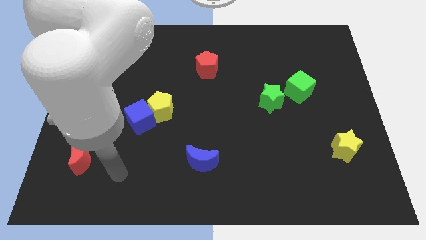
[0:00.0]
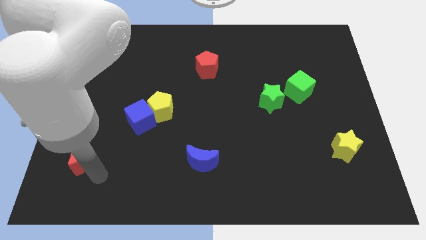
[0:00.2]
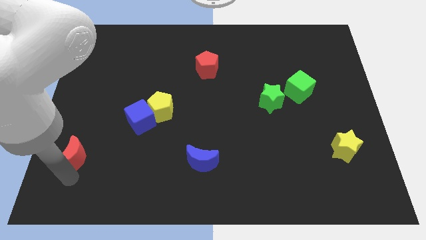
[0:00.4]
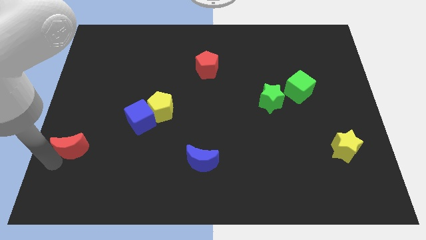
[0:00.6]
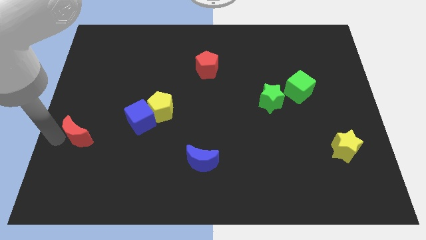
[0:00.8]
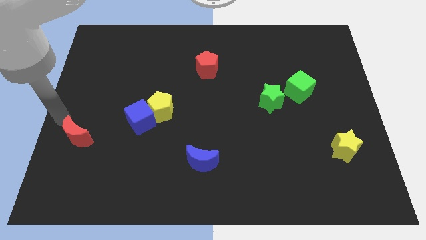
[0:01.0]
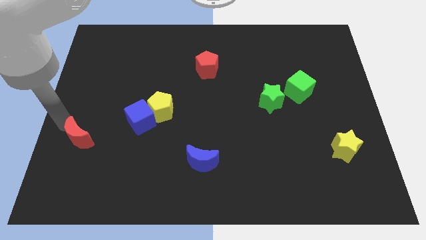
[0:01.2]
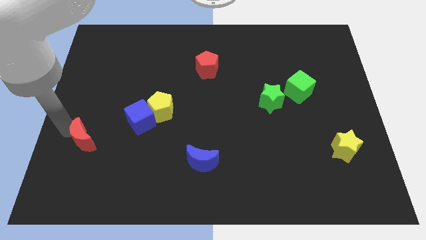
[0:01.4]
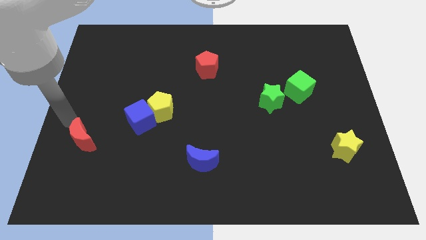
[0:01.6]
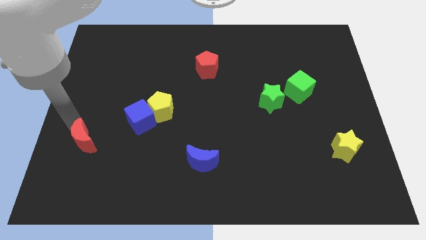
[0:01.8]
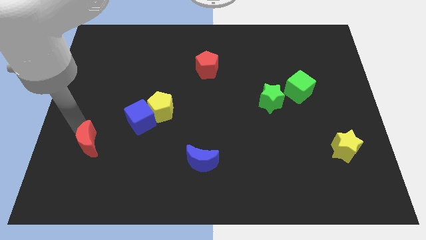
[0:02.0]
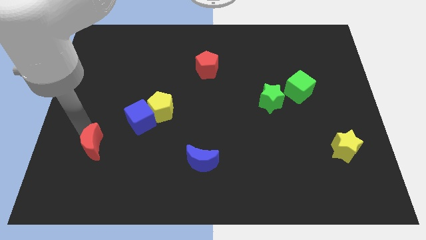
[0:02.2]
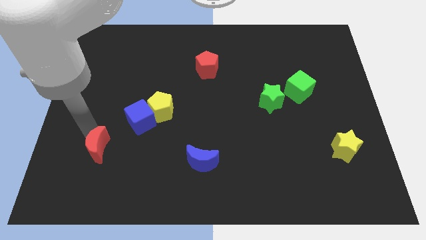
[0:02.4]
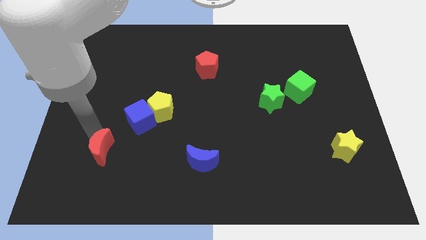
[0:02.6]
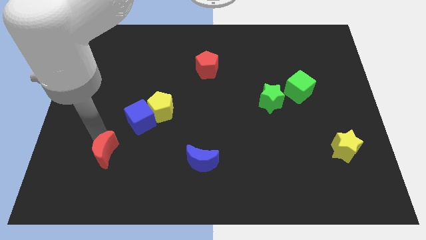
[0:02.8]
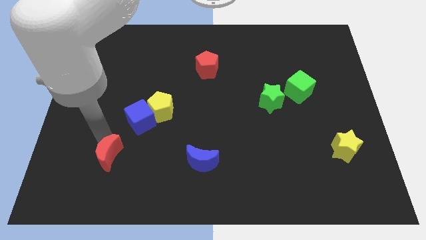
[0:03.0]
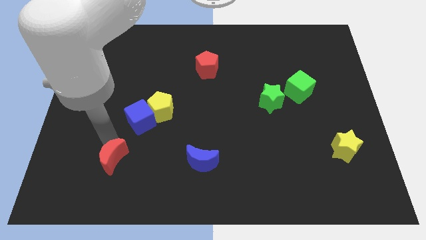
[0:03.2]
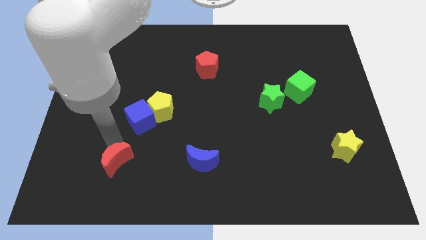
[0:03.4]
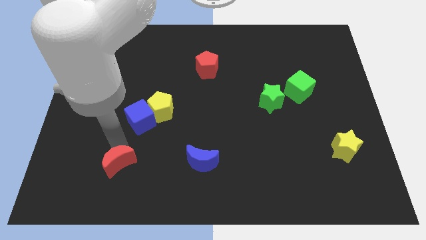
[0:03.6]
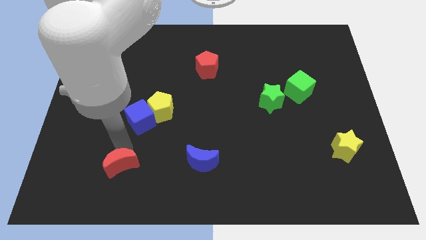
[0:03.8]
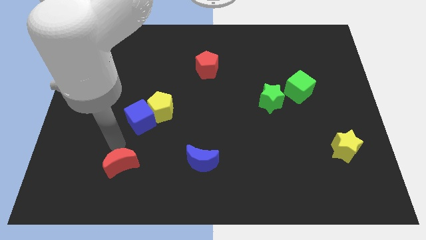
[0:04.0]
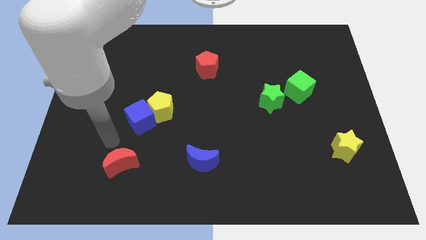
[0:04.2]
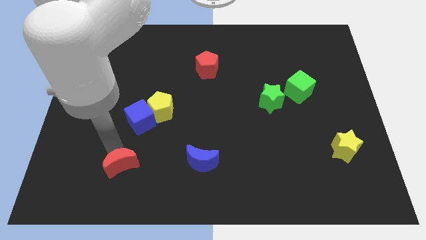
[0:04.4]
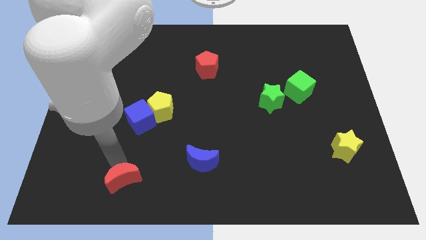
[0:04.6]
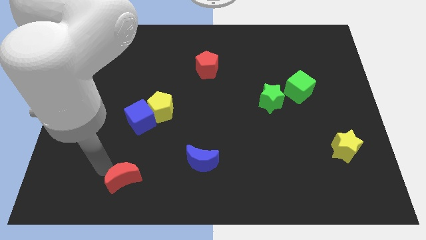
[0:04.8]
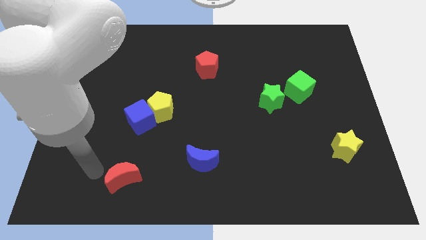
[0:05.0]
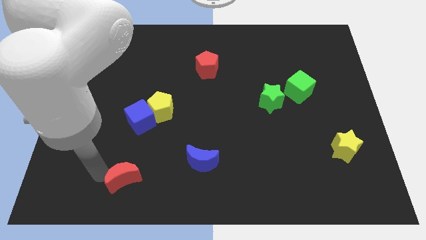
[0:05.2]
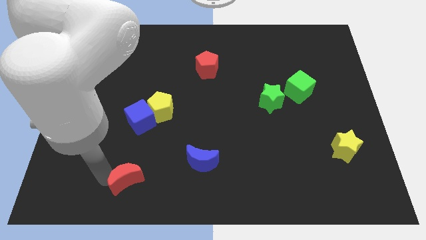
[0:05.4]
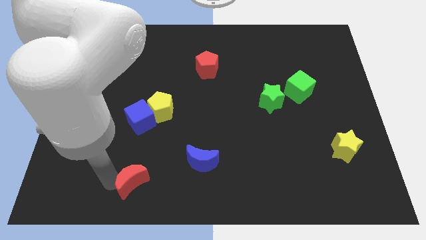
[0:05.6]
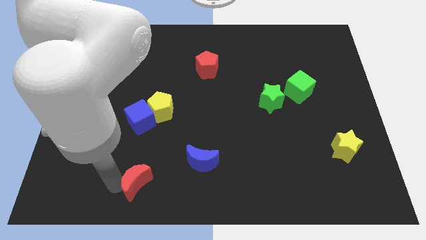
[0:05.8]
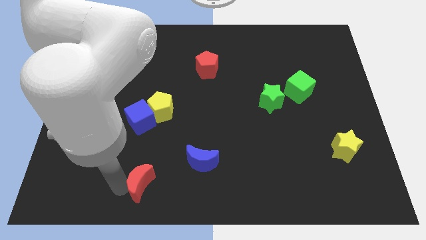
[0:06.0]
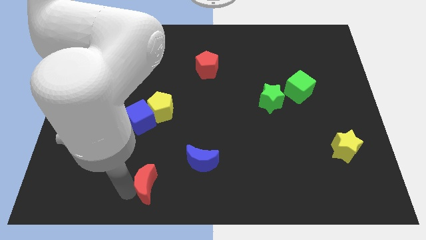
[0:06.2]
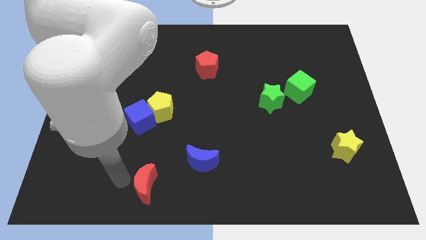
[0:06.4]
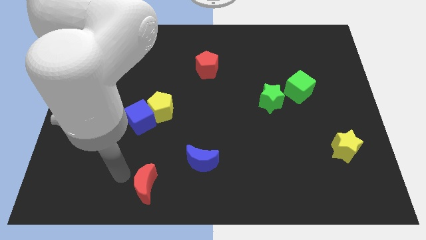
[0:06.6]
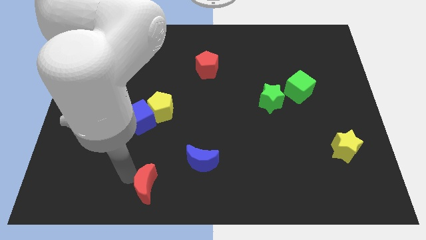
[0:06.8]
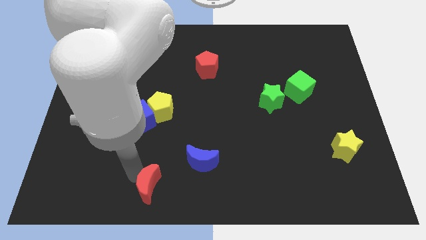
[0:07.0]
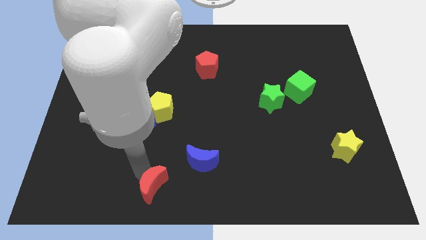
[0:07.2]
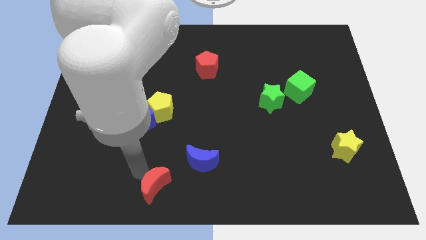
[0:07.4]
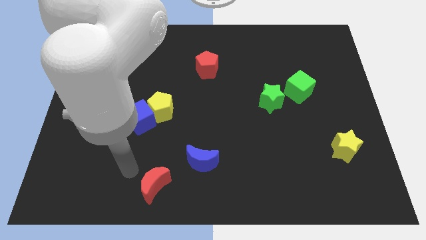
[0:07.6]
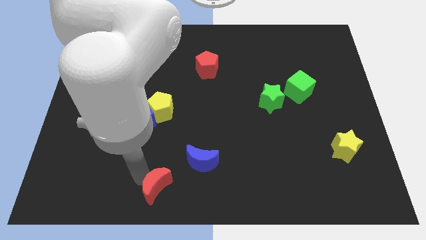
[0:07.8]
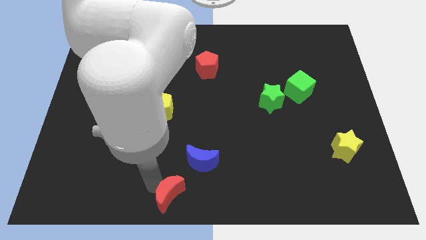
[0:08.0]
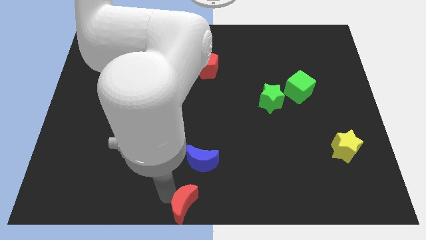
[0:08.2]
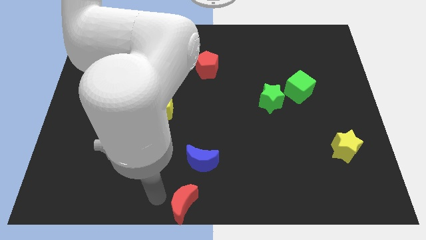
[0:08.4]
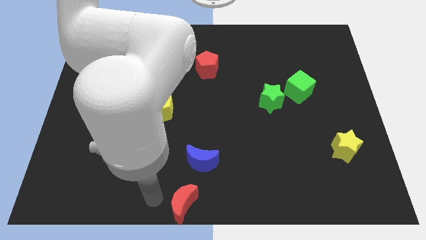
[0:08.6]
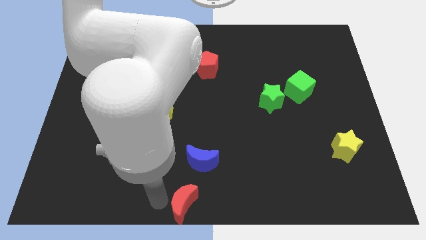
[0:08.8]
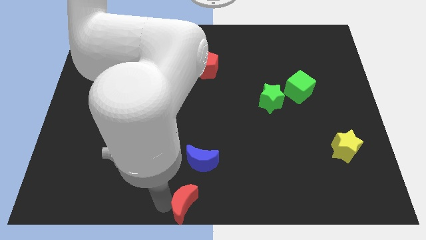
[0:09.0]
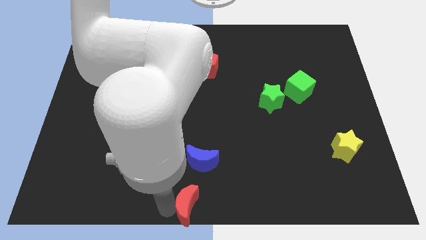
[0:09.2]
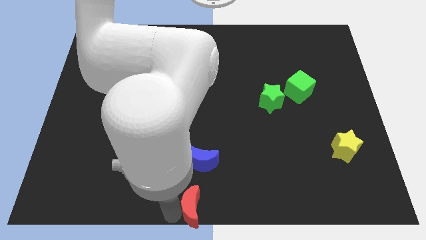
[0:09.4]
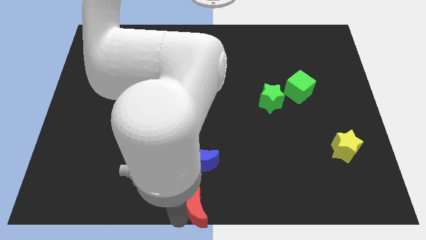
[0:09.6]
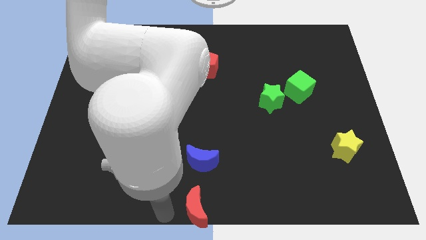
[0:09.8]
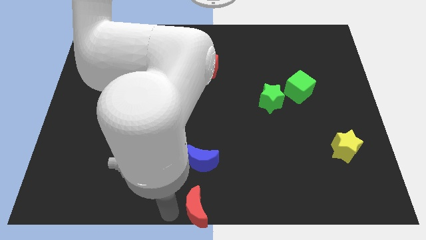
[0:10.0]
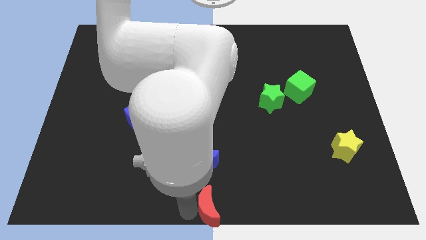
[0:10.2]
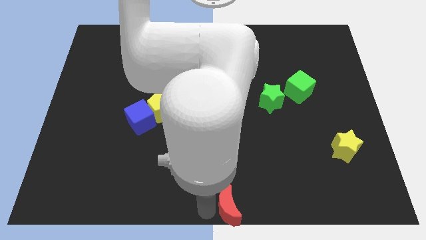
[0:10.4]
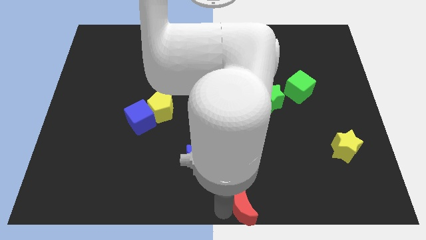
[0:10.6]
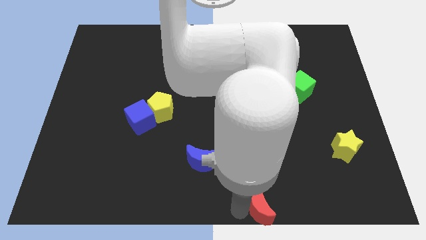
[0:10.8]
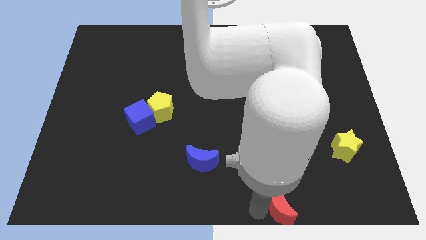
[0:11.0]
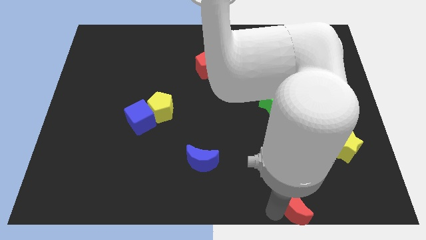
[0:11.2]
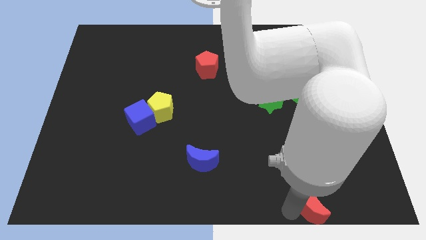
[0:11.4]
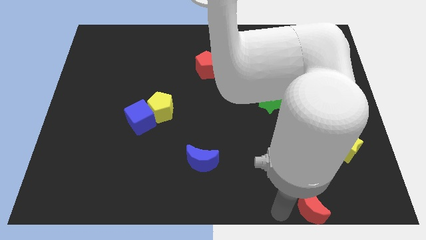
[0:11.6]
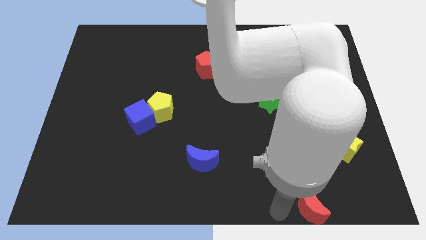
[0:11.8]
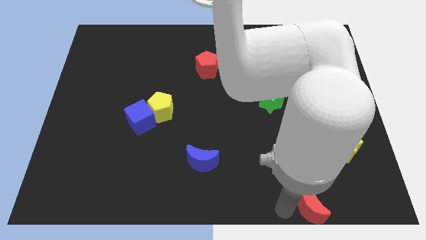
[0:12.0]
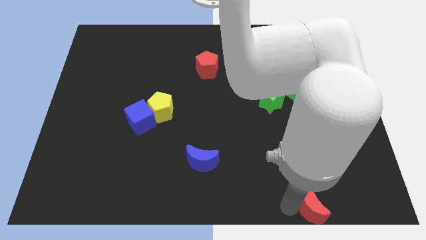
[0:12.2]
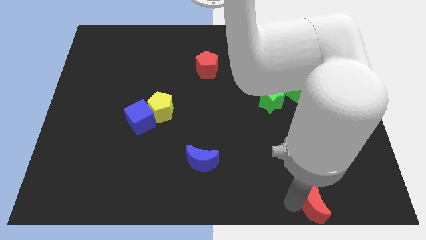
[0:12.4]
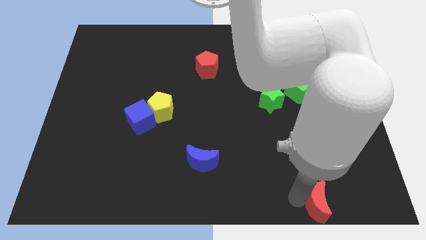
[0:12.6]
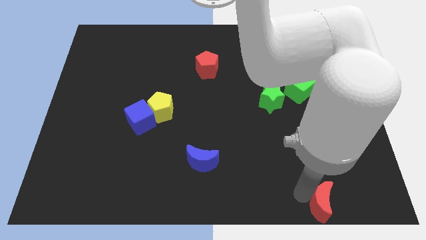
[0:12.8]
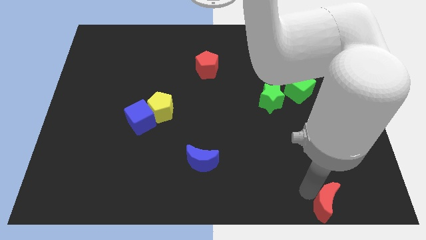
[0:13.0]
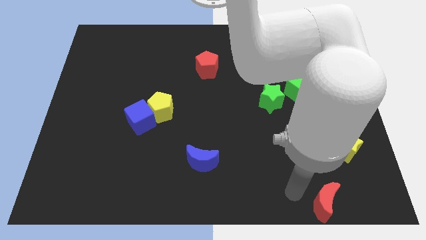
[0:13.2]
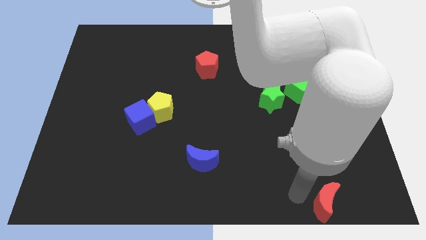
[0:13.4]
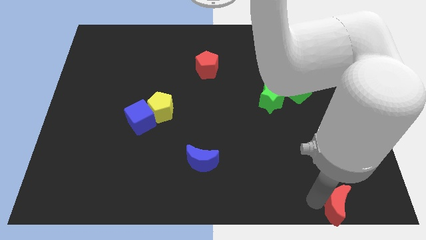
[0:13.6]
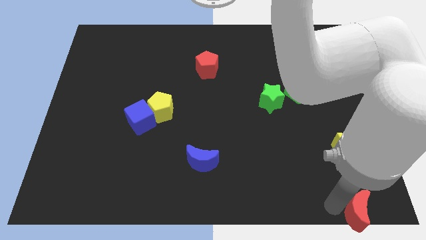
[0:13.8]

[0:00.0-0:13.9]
slide the red moon to the lower right corner
